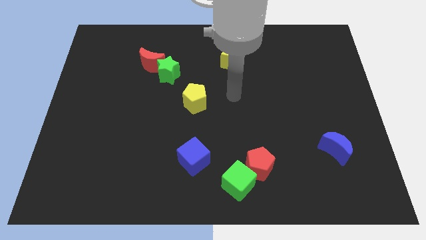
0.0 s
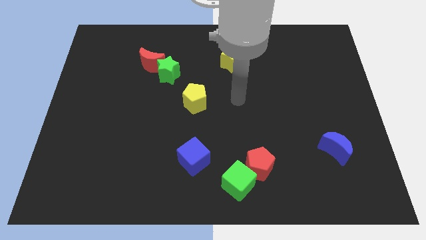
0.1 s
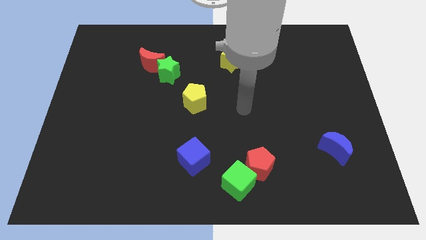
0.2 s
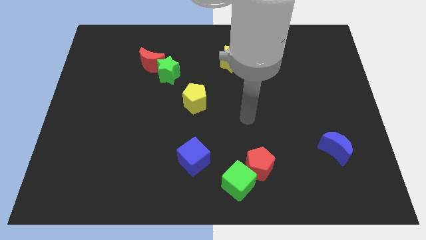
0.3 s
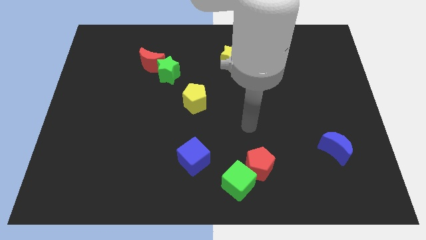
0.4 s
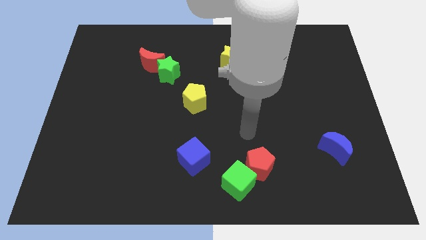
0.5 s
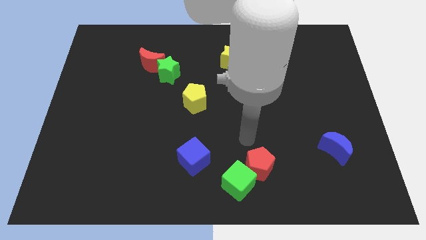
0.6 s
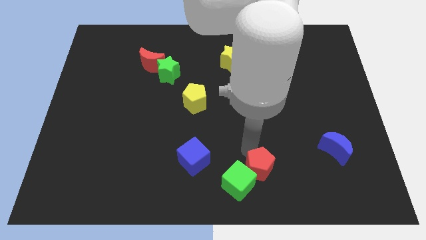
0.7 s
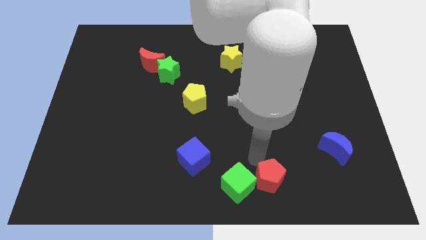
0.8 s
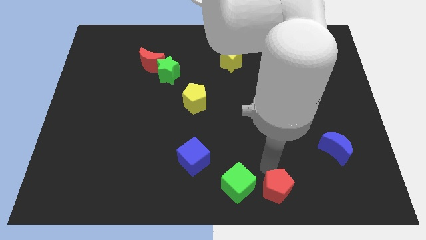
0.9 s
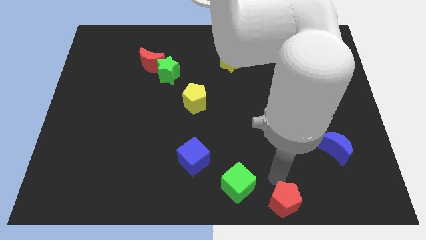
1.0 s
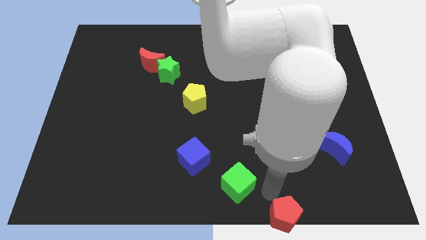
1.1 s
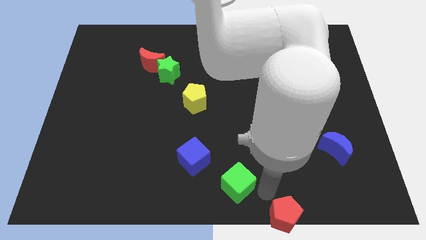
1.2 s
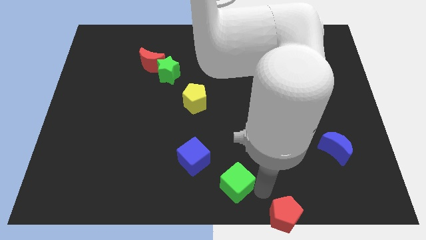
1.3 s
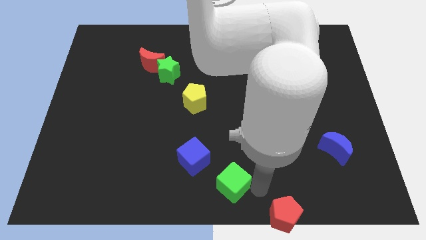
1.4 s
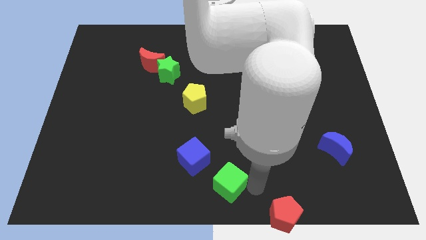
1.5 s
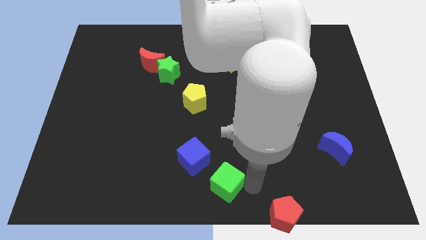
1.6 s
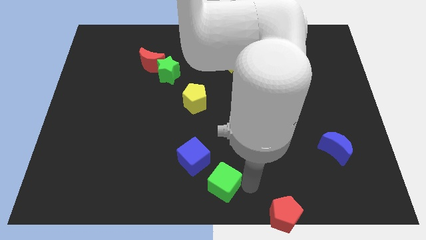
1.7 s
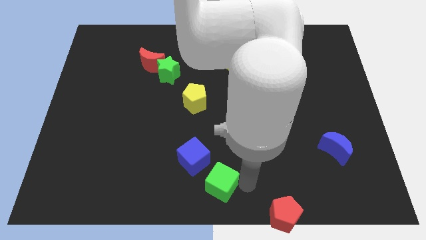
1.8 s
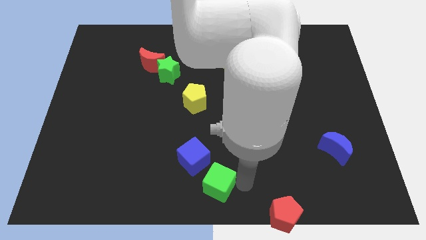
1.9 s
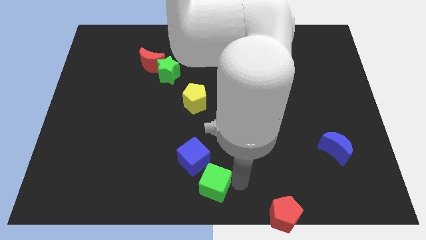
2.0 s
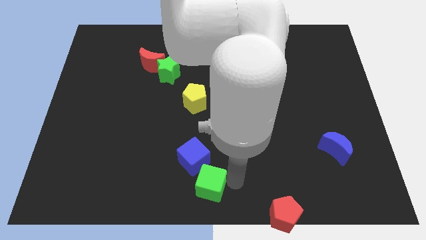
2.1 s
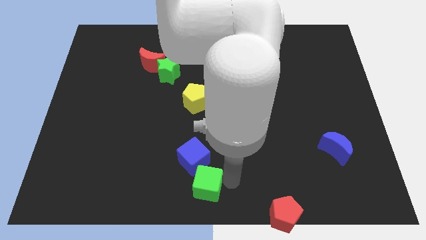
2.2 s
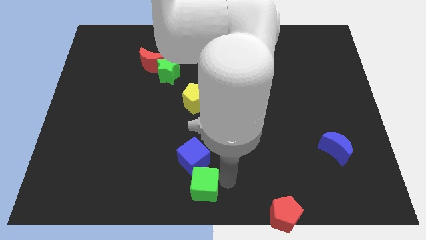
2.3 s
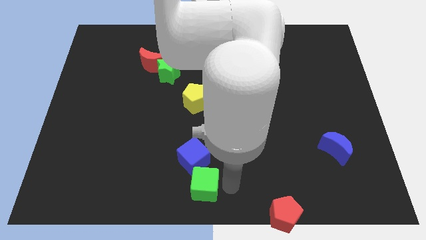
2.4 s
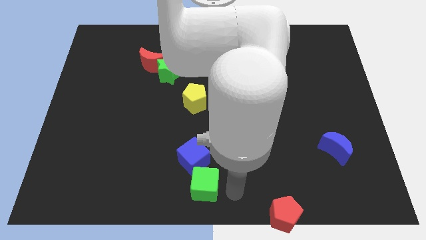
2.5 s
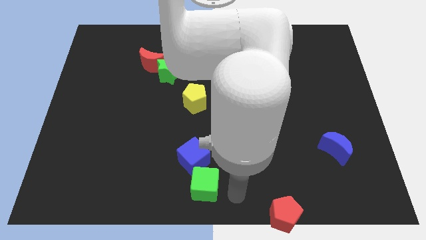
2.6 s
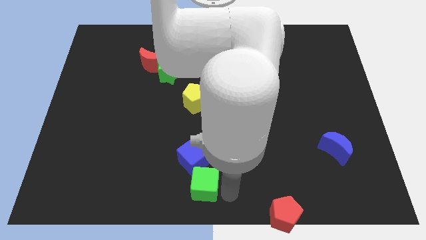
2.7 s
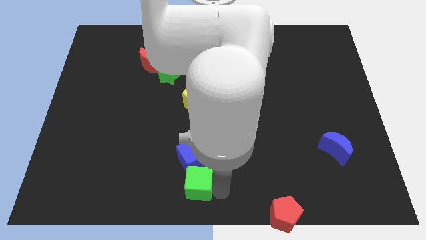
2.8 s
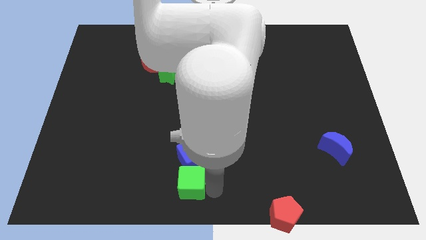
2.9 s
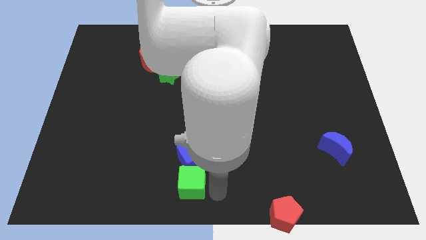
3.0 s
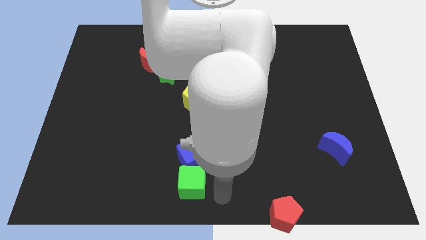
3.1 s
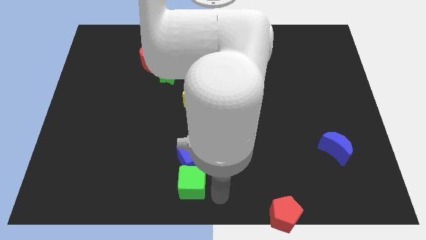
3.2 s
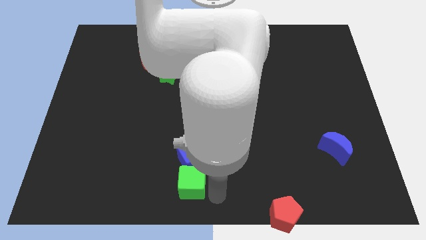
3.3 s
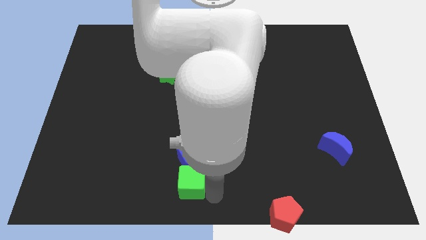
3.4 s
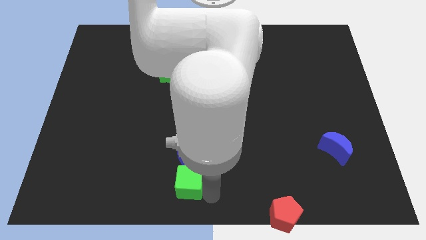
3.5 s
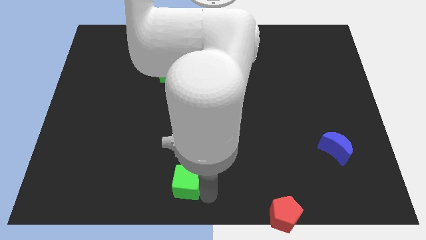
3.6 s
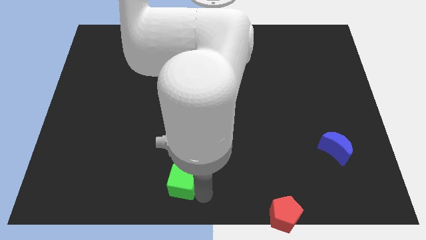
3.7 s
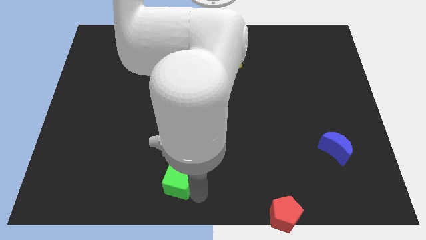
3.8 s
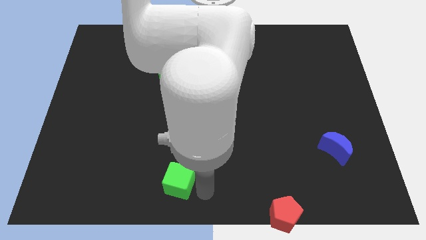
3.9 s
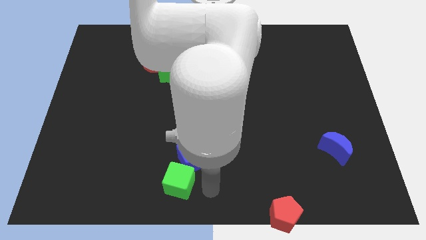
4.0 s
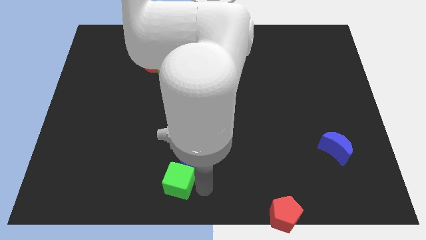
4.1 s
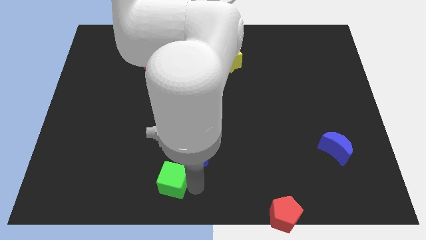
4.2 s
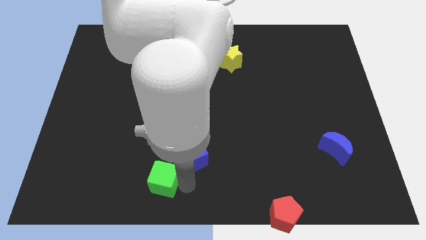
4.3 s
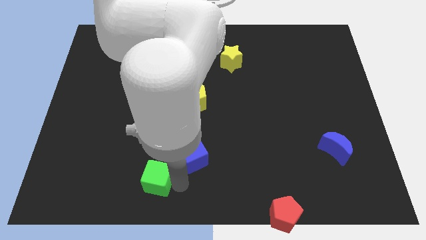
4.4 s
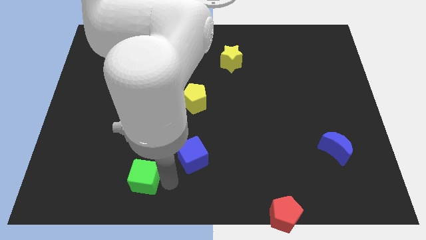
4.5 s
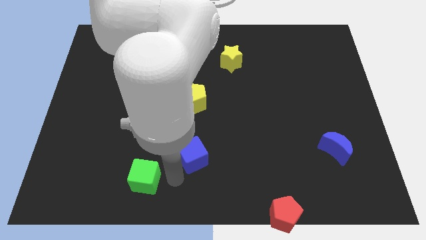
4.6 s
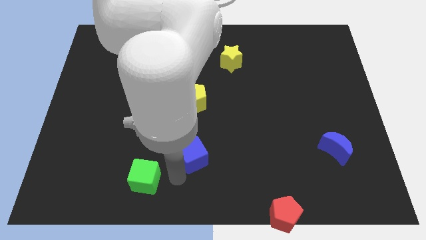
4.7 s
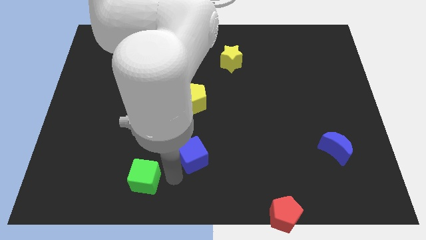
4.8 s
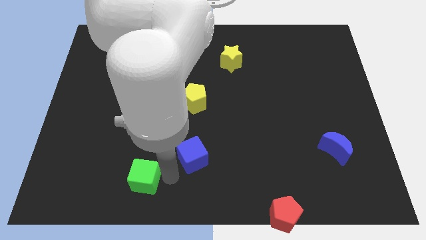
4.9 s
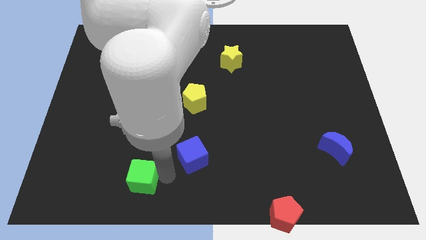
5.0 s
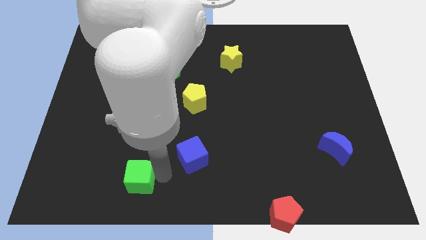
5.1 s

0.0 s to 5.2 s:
push the green cube to the left

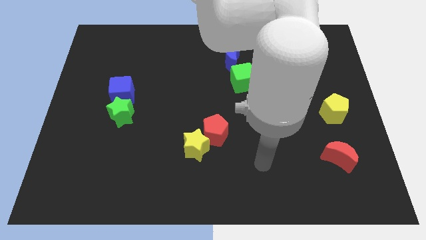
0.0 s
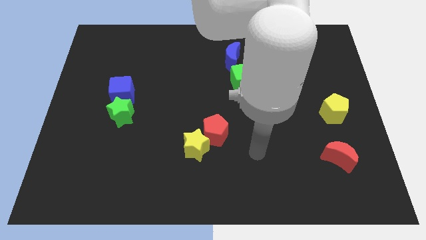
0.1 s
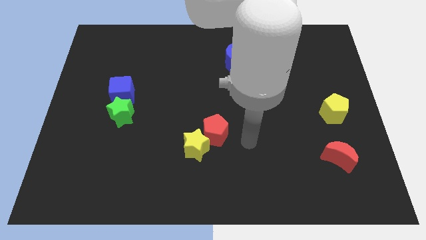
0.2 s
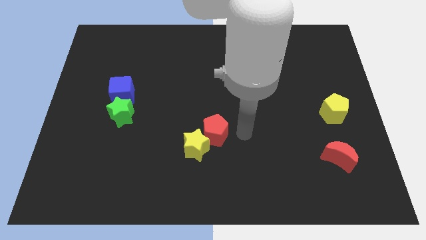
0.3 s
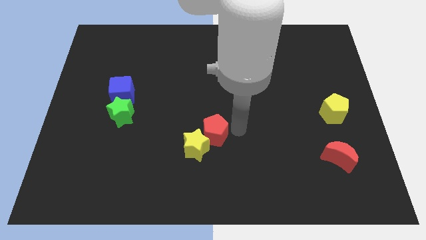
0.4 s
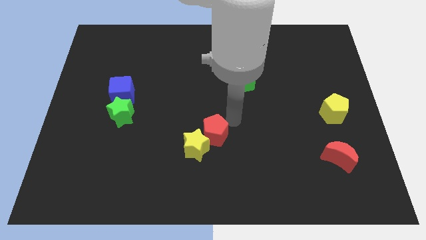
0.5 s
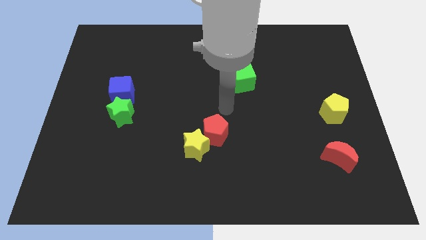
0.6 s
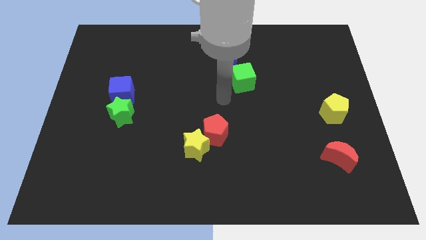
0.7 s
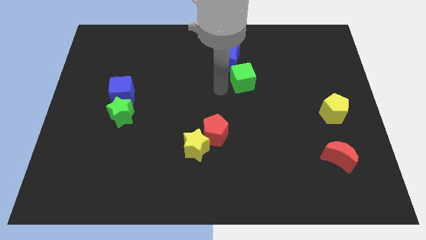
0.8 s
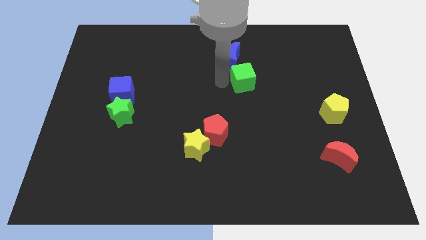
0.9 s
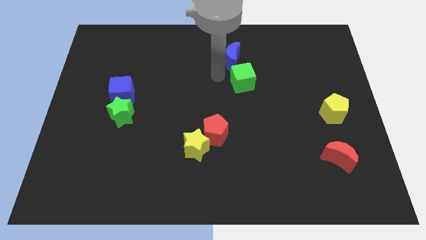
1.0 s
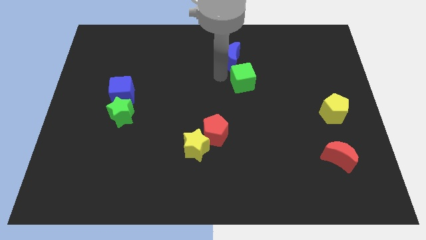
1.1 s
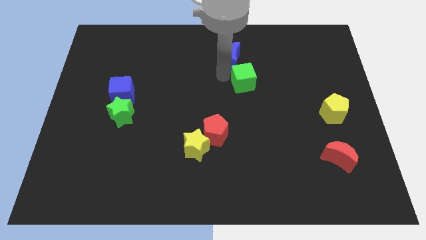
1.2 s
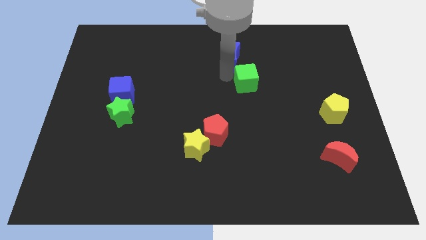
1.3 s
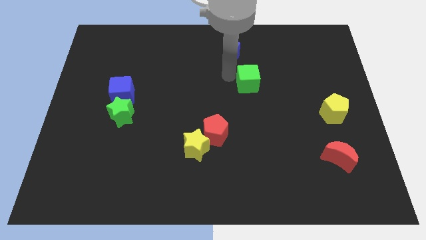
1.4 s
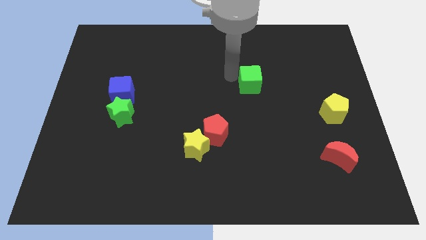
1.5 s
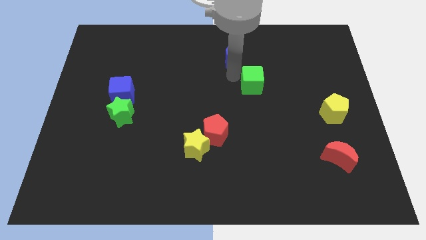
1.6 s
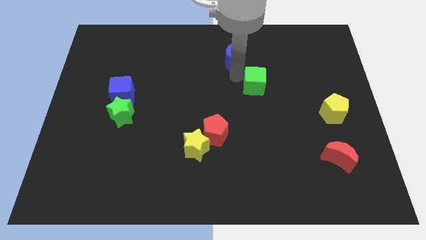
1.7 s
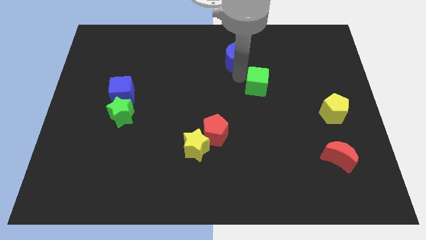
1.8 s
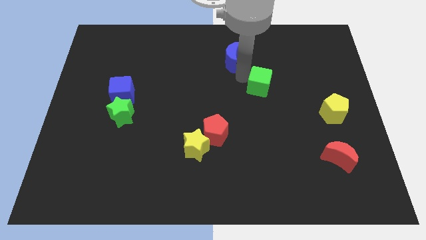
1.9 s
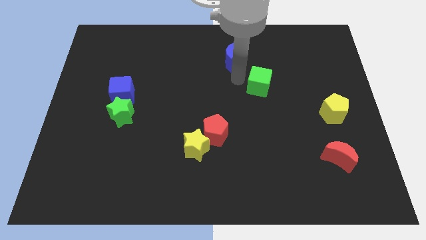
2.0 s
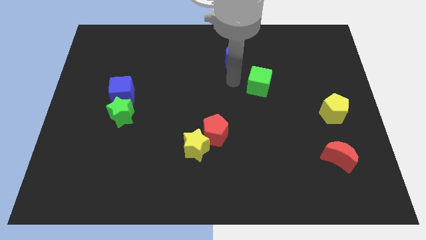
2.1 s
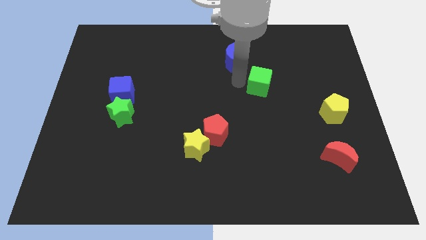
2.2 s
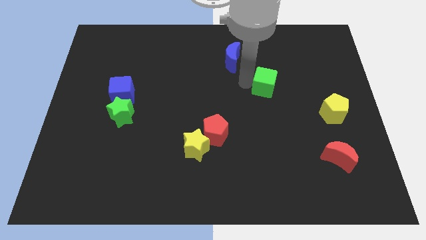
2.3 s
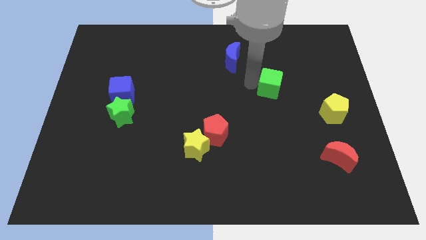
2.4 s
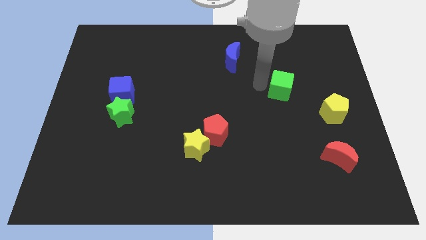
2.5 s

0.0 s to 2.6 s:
slightly slide the green cube right

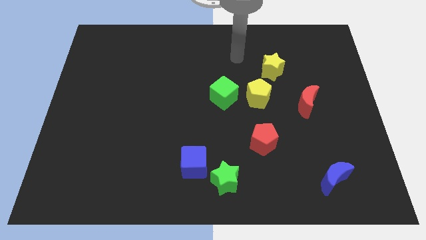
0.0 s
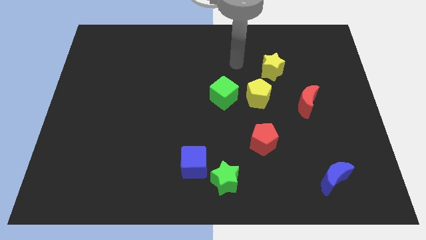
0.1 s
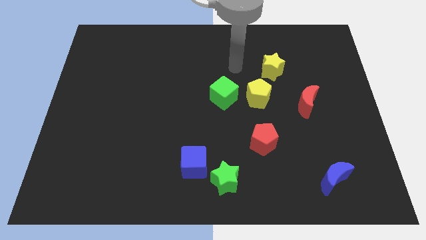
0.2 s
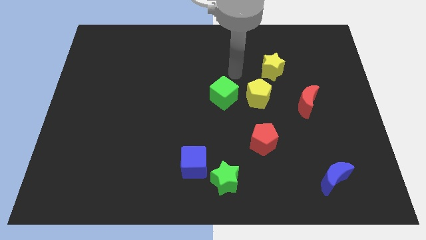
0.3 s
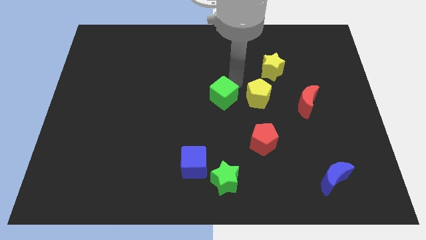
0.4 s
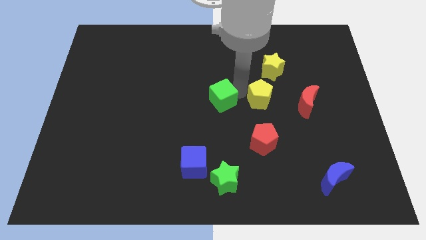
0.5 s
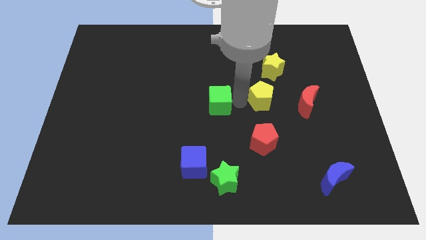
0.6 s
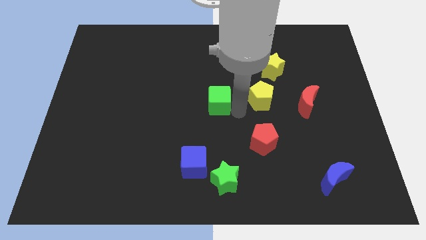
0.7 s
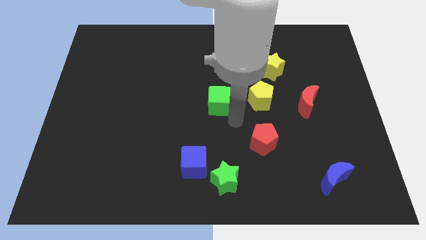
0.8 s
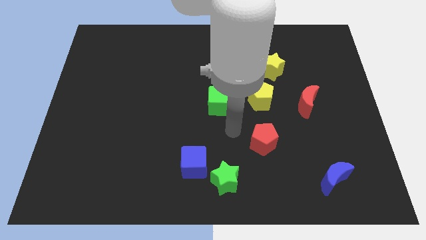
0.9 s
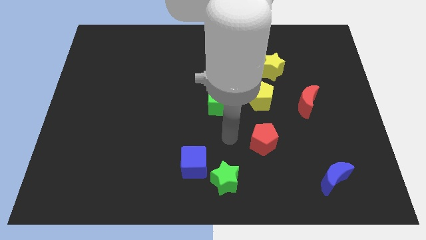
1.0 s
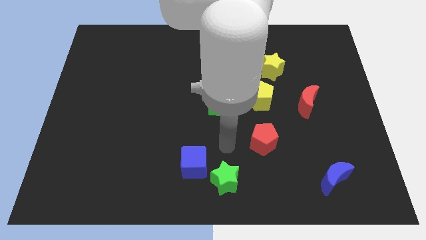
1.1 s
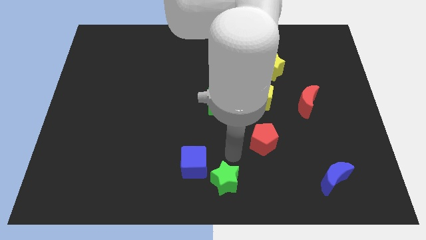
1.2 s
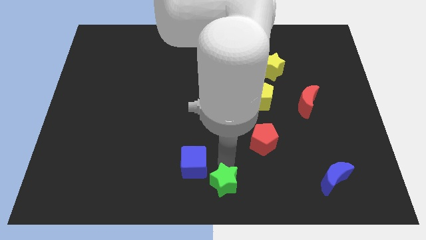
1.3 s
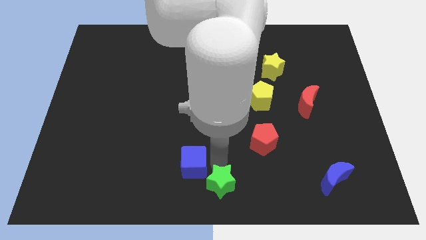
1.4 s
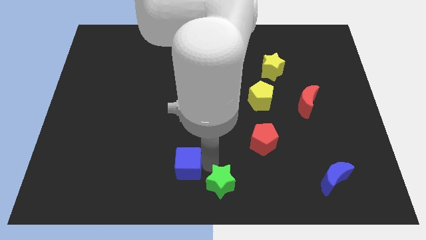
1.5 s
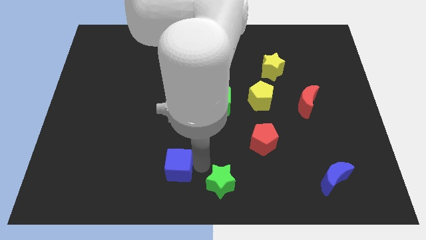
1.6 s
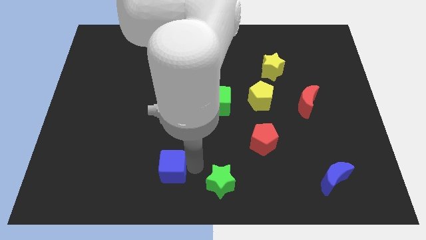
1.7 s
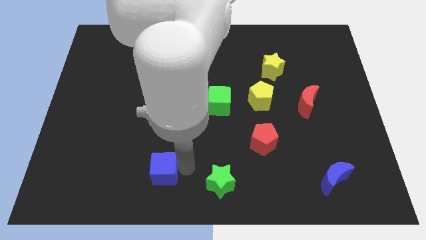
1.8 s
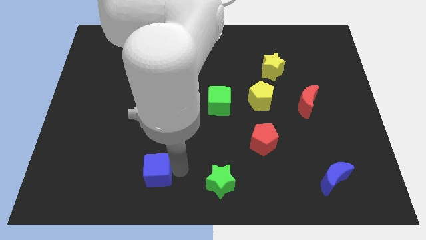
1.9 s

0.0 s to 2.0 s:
move the blue cube left somewhat
